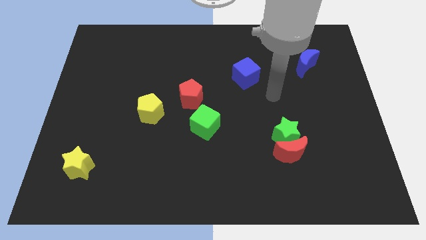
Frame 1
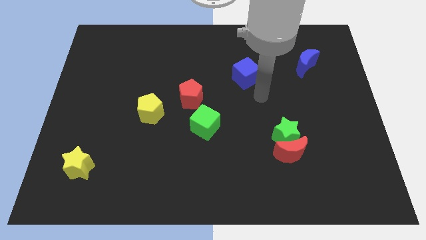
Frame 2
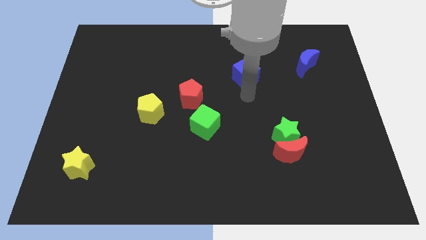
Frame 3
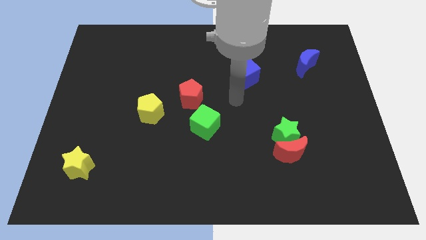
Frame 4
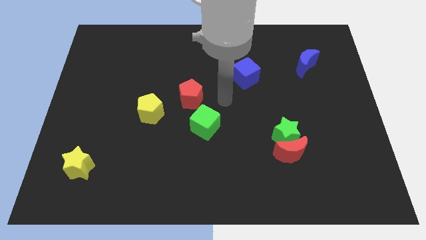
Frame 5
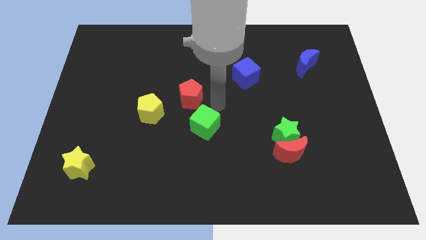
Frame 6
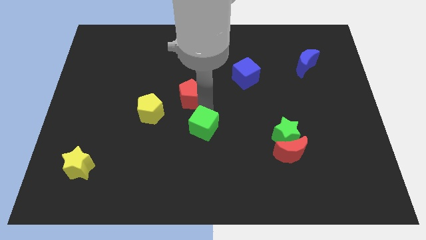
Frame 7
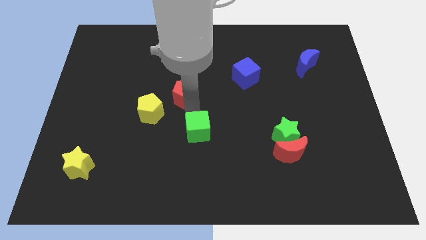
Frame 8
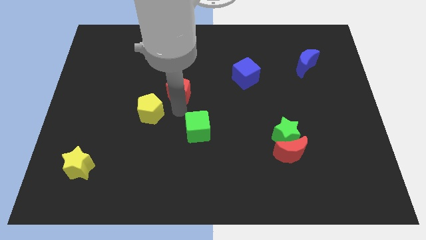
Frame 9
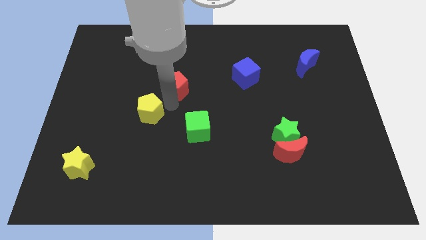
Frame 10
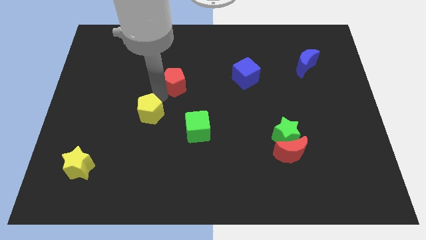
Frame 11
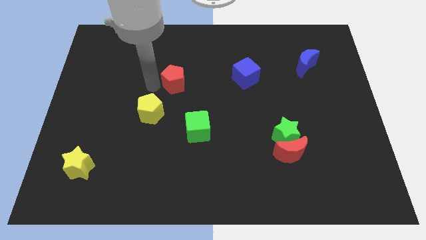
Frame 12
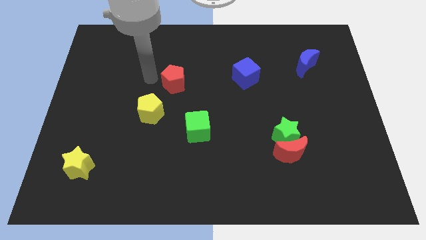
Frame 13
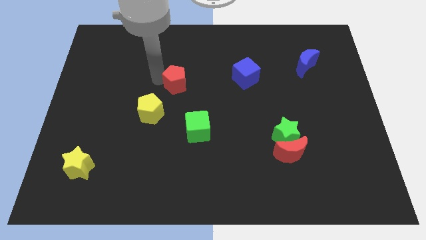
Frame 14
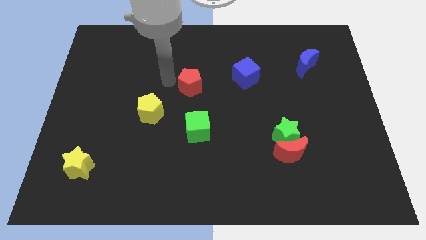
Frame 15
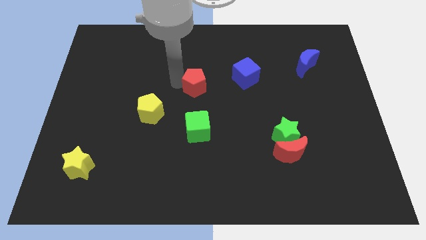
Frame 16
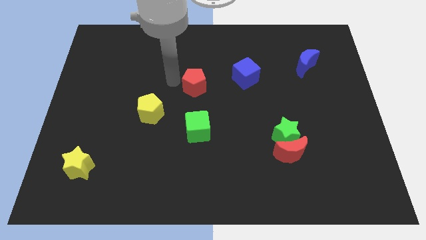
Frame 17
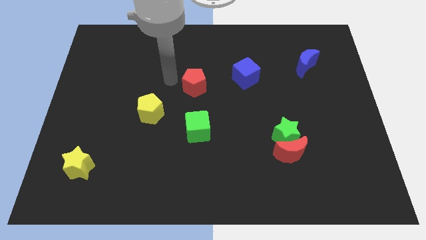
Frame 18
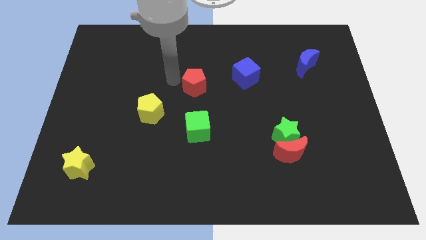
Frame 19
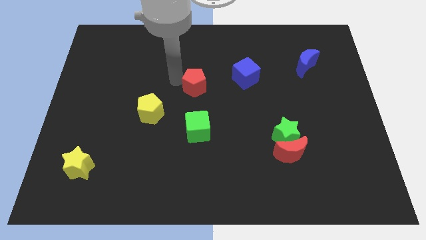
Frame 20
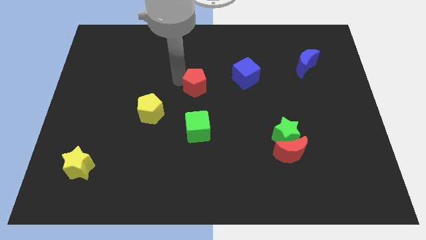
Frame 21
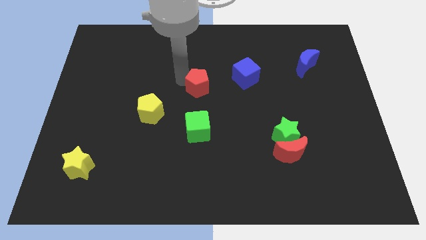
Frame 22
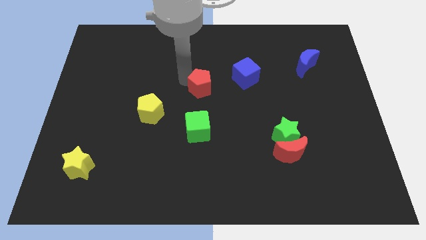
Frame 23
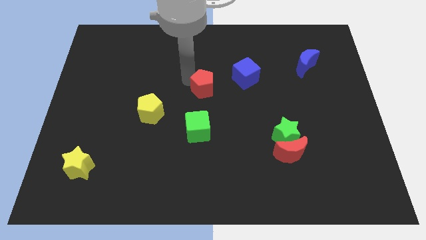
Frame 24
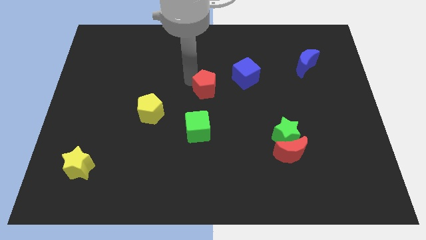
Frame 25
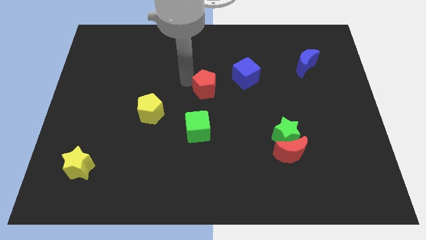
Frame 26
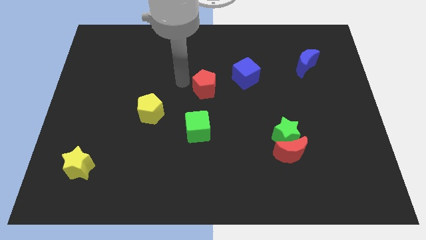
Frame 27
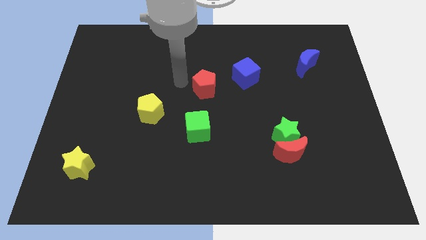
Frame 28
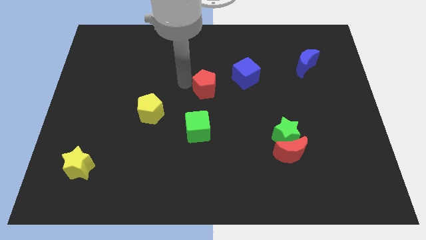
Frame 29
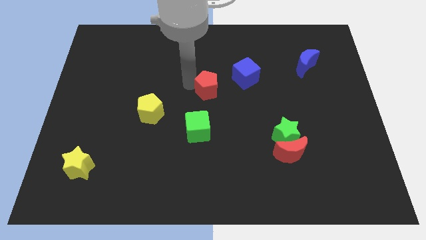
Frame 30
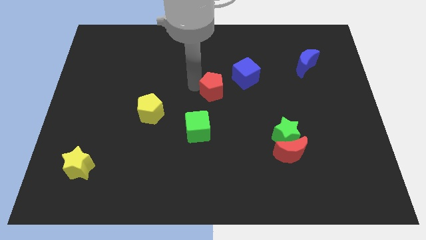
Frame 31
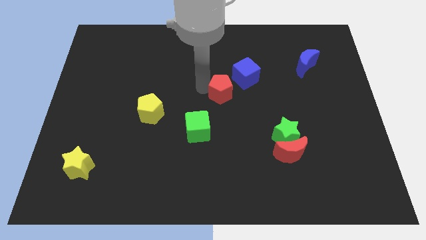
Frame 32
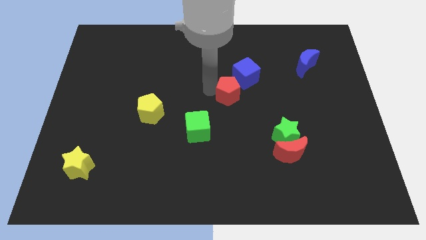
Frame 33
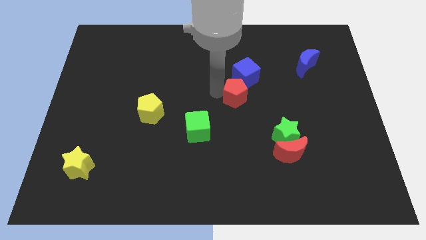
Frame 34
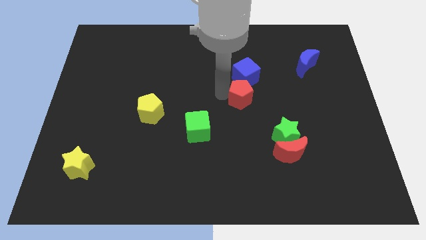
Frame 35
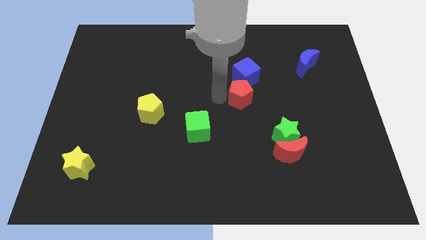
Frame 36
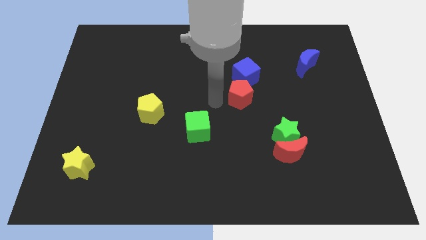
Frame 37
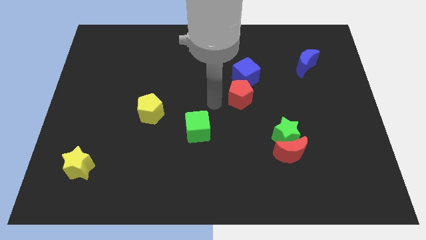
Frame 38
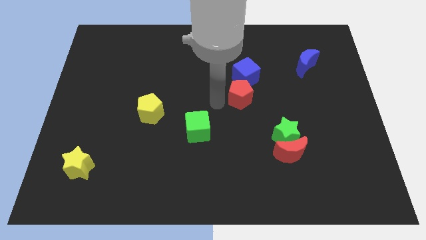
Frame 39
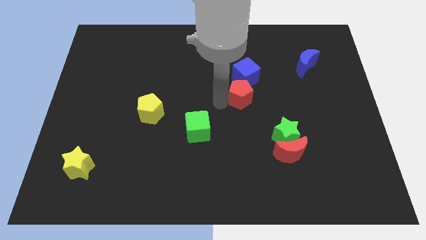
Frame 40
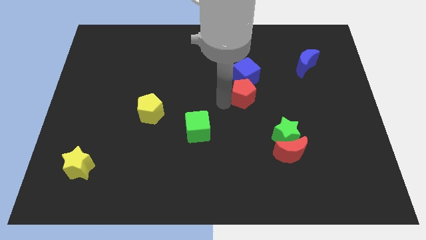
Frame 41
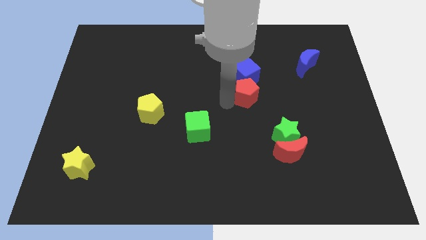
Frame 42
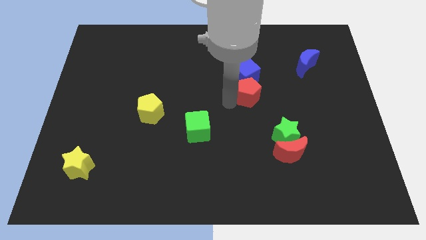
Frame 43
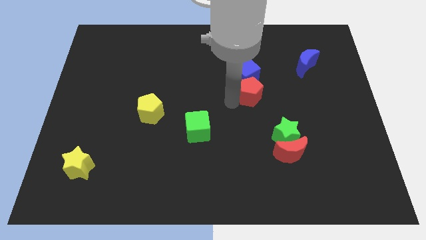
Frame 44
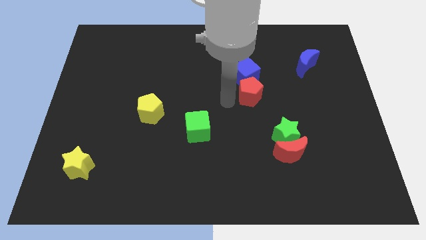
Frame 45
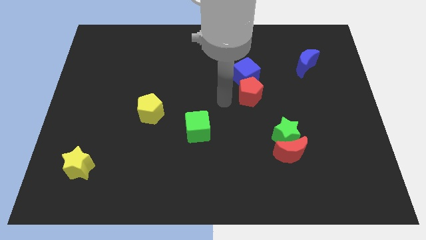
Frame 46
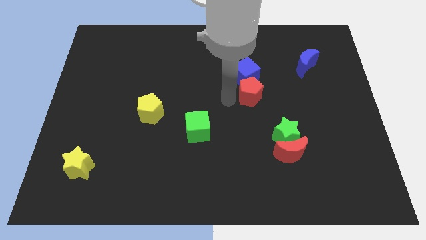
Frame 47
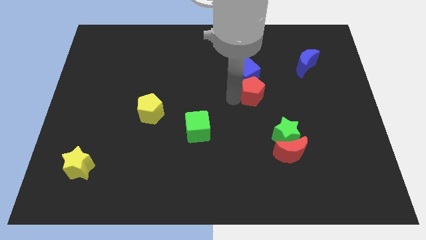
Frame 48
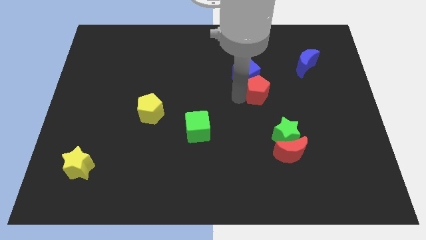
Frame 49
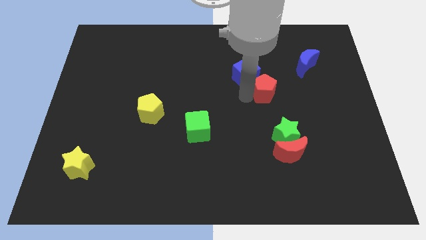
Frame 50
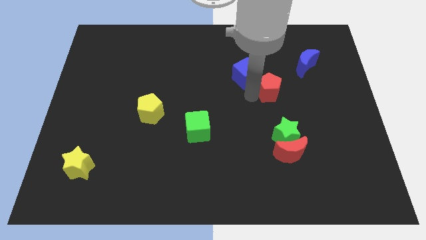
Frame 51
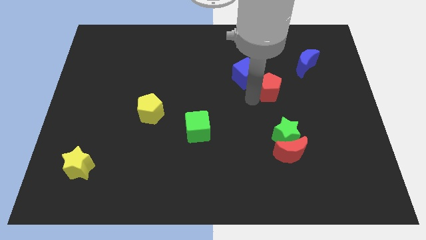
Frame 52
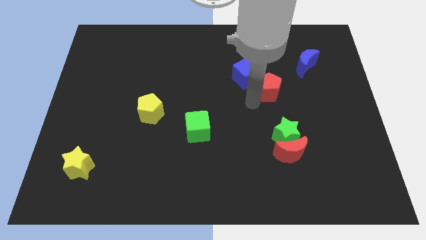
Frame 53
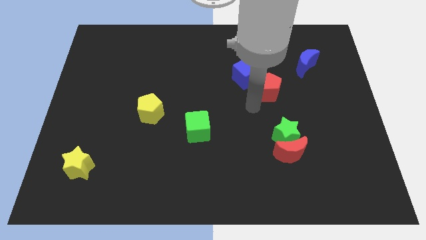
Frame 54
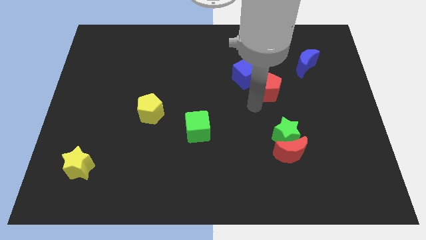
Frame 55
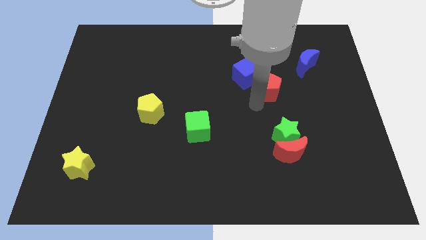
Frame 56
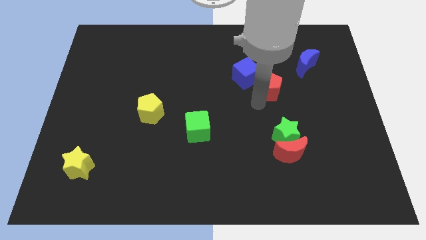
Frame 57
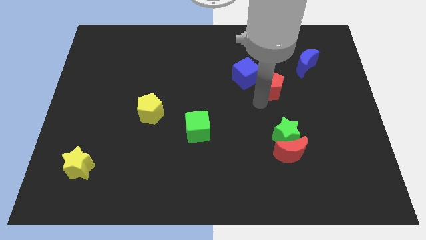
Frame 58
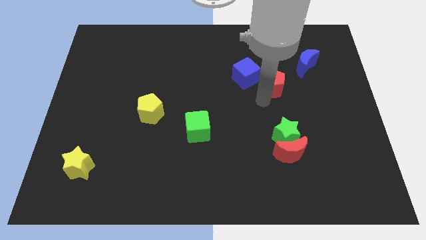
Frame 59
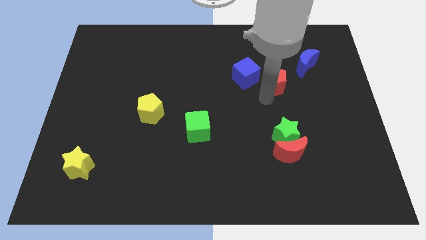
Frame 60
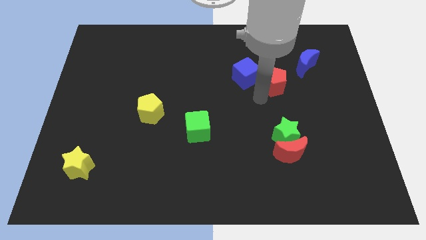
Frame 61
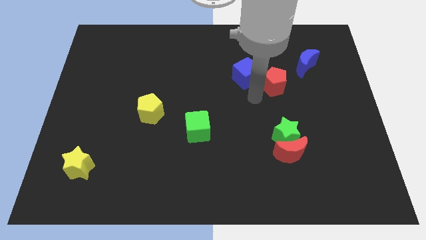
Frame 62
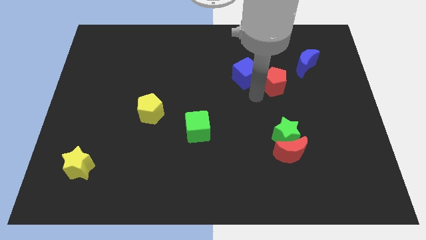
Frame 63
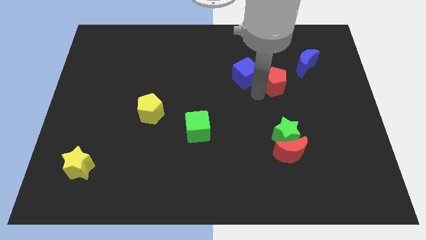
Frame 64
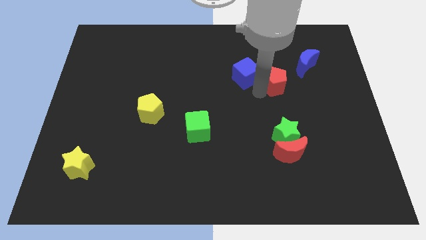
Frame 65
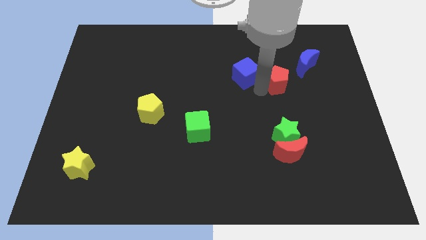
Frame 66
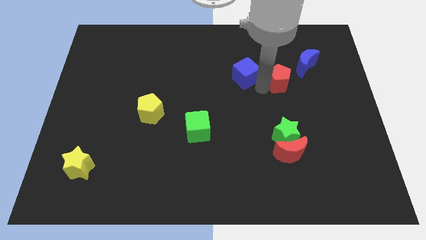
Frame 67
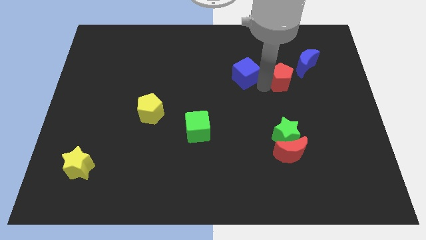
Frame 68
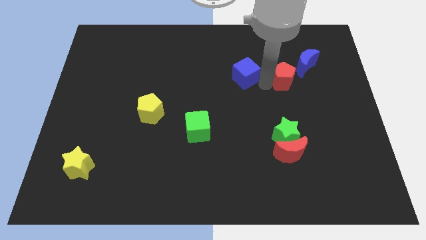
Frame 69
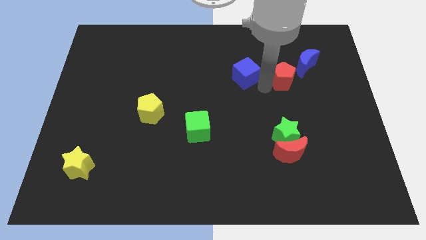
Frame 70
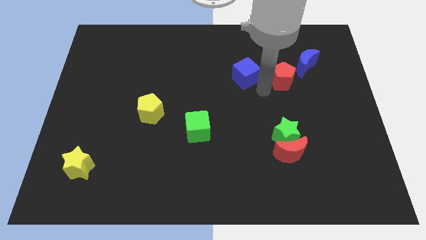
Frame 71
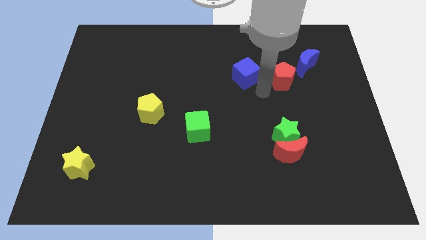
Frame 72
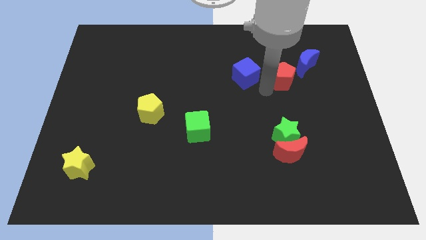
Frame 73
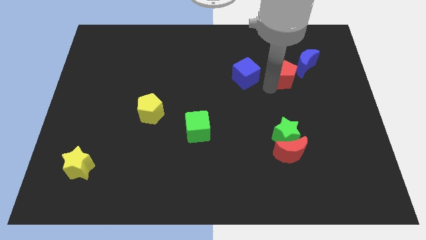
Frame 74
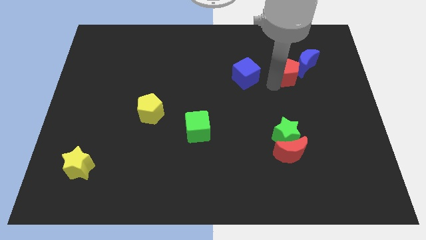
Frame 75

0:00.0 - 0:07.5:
move the red pentagon next to the blue moon
